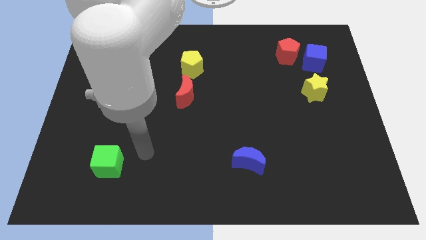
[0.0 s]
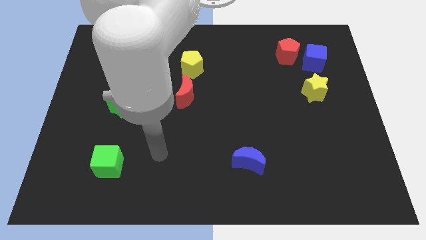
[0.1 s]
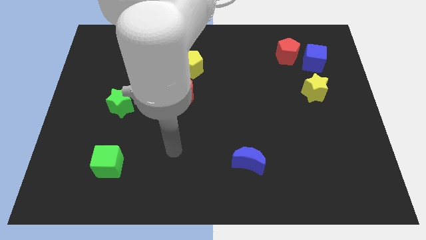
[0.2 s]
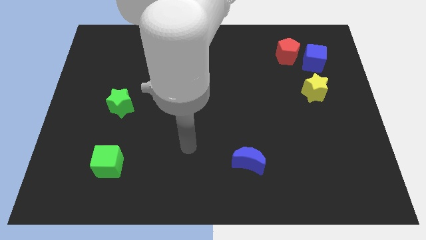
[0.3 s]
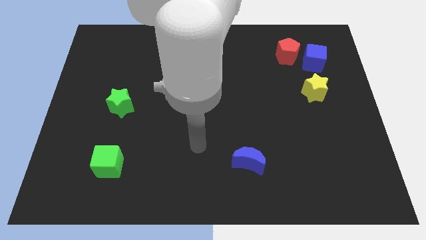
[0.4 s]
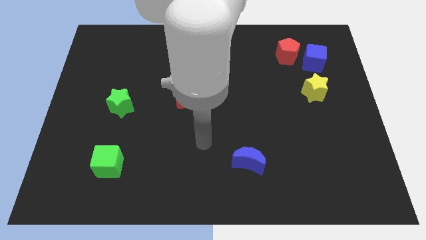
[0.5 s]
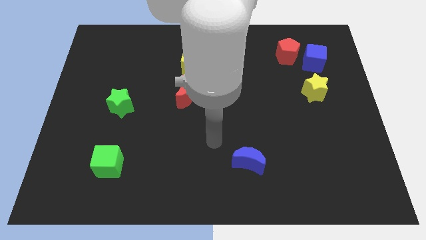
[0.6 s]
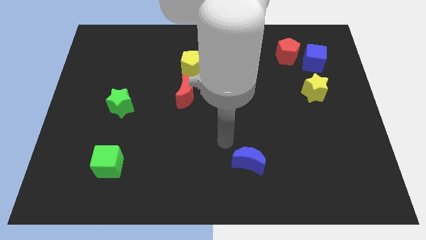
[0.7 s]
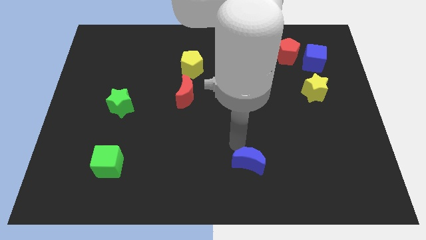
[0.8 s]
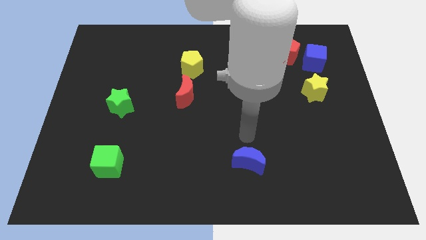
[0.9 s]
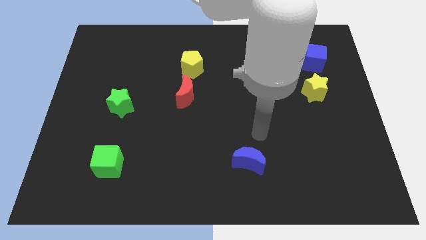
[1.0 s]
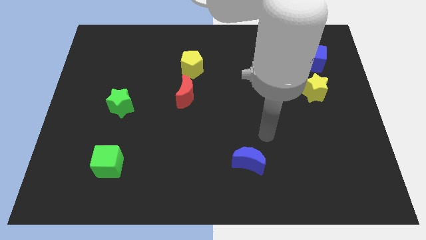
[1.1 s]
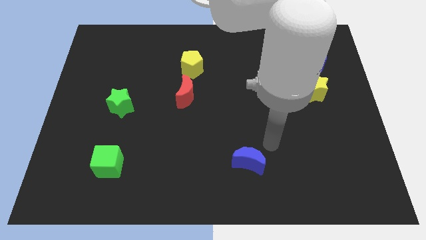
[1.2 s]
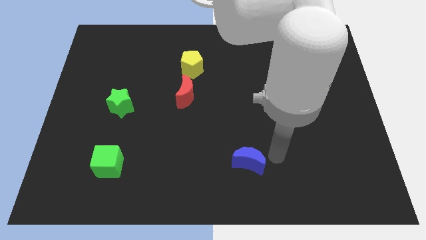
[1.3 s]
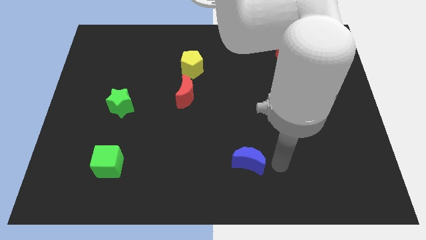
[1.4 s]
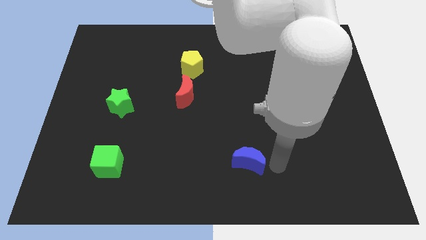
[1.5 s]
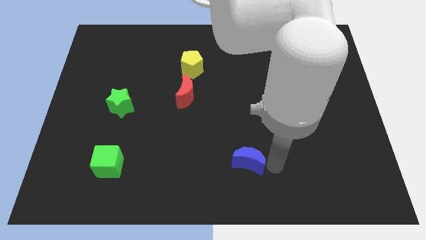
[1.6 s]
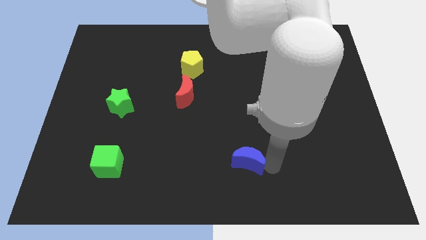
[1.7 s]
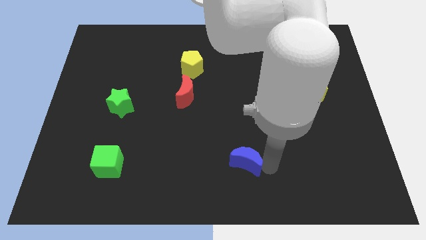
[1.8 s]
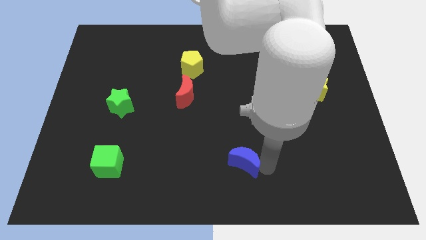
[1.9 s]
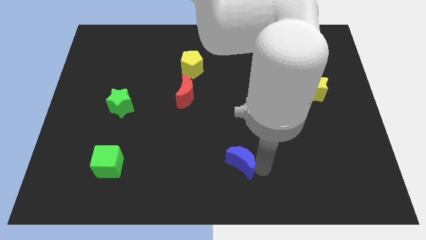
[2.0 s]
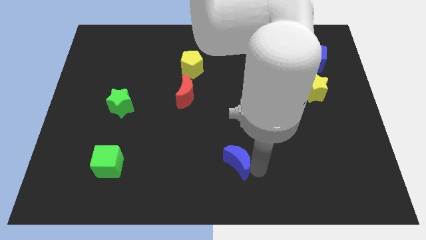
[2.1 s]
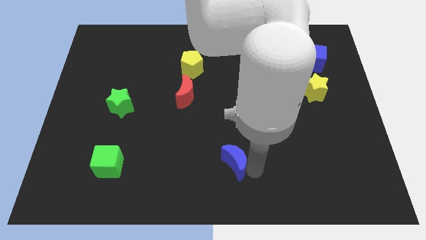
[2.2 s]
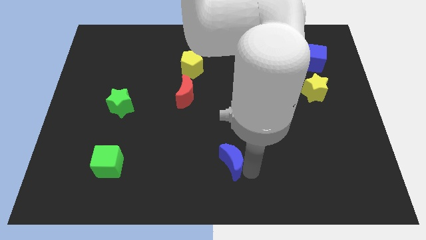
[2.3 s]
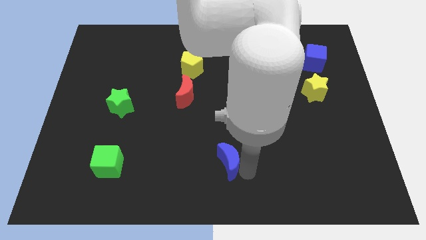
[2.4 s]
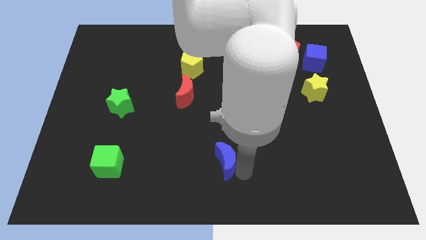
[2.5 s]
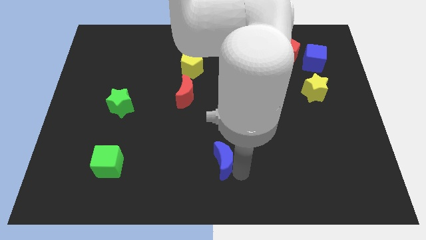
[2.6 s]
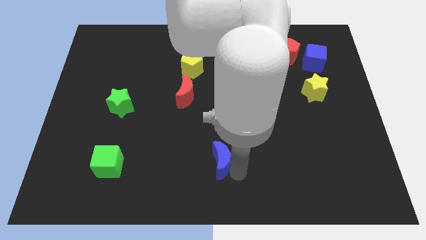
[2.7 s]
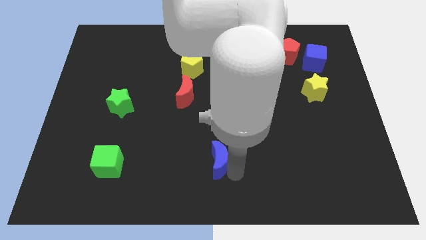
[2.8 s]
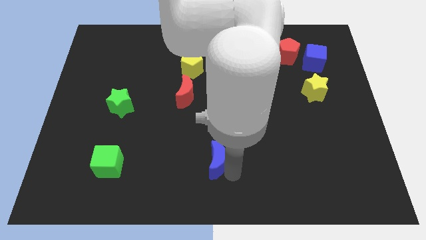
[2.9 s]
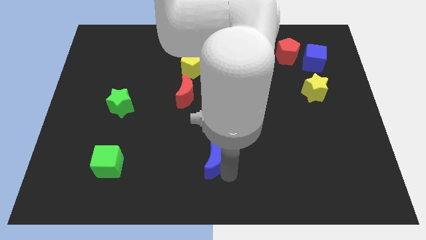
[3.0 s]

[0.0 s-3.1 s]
move the blue moon to the left a bit

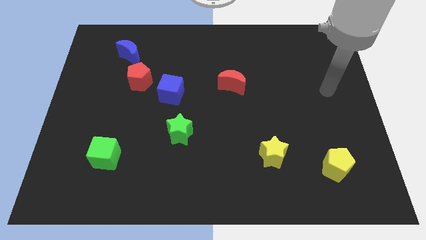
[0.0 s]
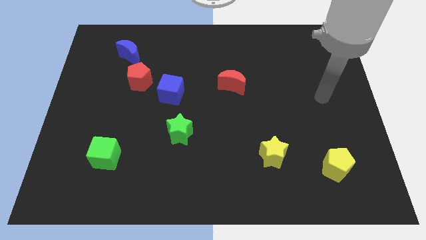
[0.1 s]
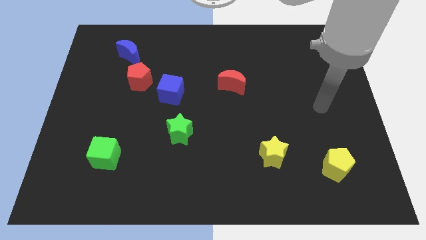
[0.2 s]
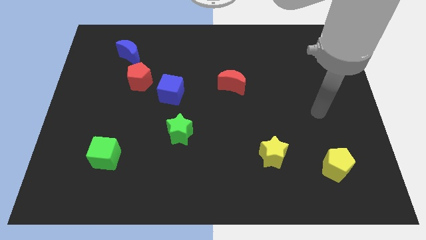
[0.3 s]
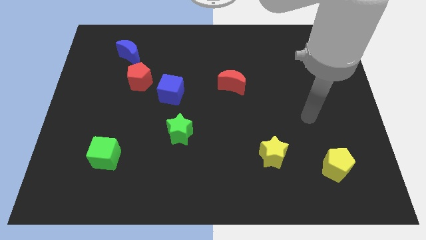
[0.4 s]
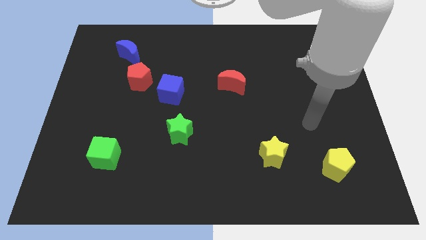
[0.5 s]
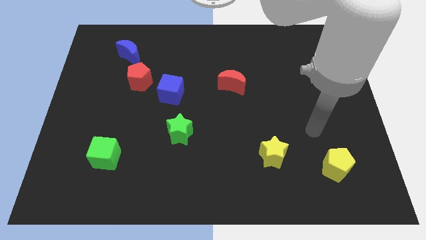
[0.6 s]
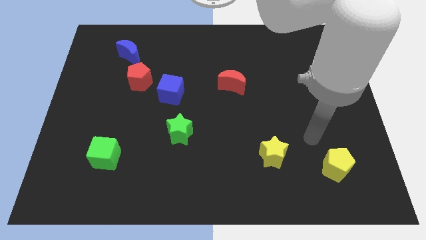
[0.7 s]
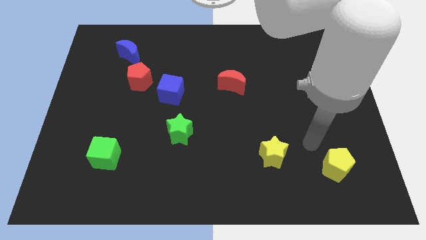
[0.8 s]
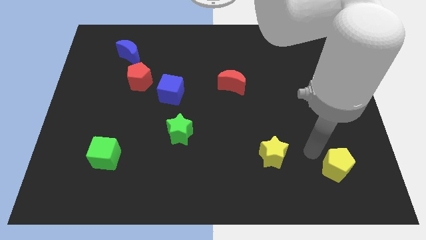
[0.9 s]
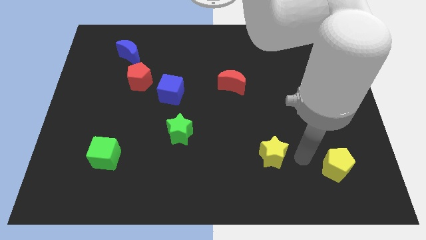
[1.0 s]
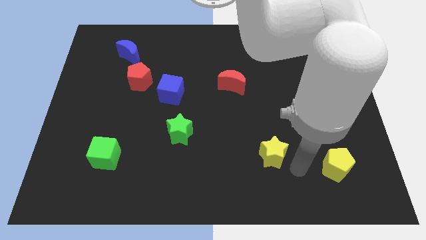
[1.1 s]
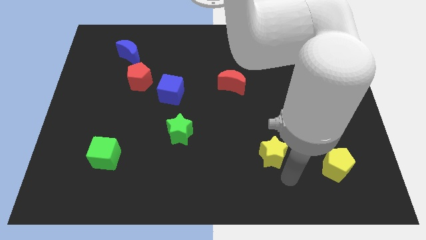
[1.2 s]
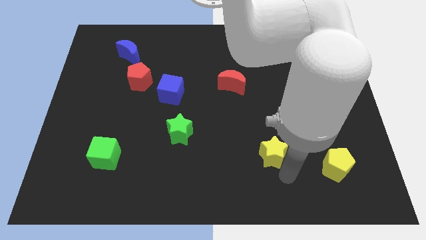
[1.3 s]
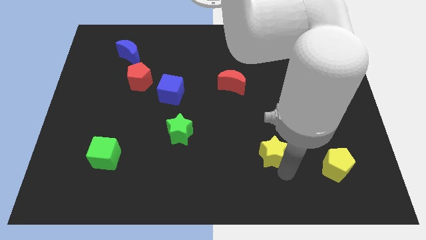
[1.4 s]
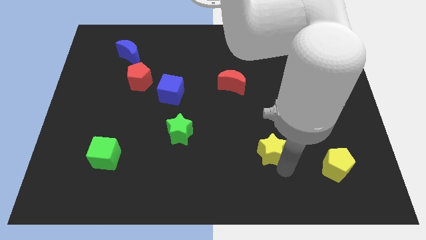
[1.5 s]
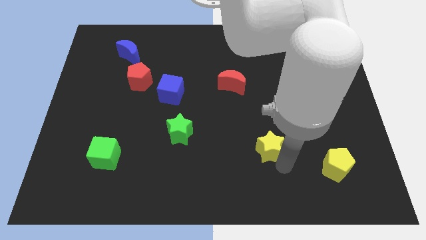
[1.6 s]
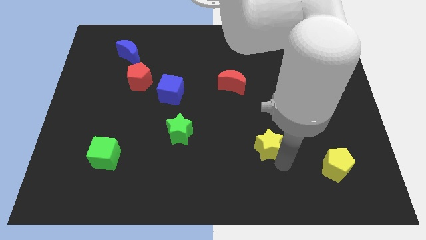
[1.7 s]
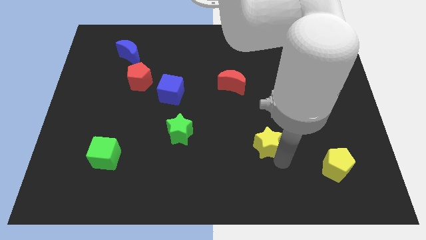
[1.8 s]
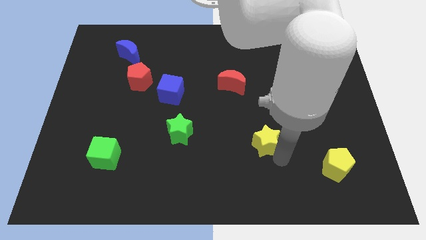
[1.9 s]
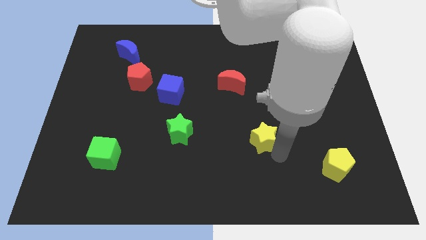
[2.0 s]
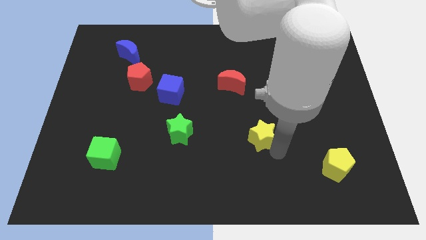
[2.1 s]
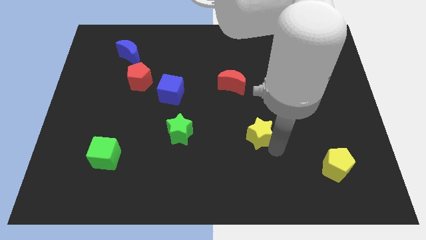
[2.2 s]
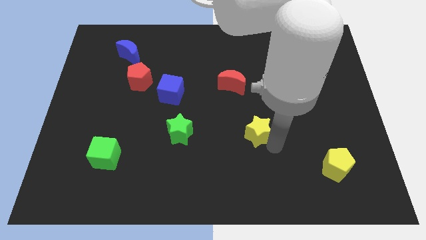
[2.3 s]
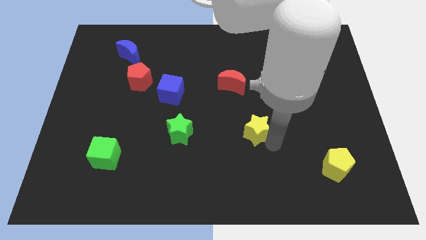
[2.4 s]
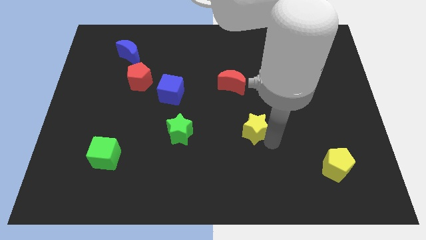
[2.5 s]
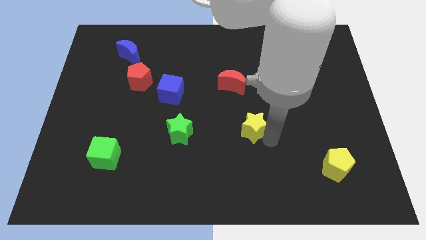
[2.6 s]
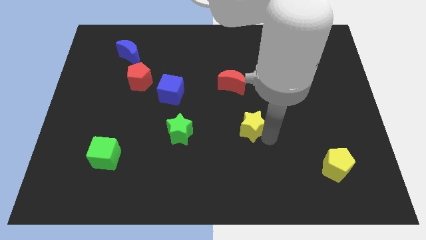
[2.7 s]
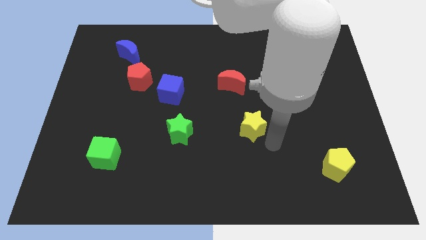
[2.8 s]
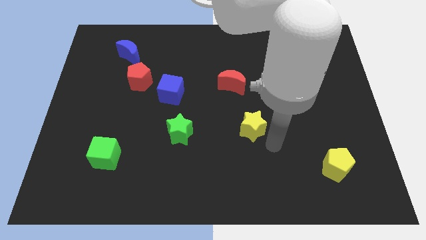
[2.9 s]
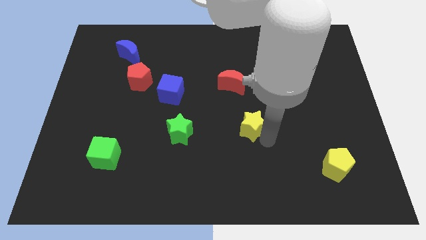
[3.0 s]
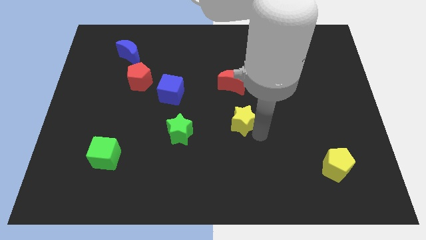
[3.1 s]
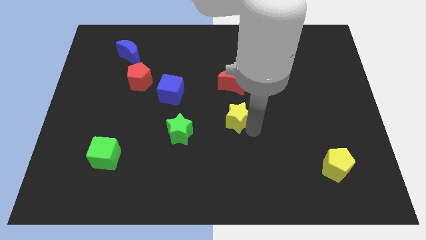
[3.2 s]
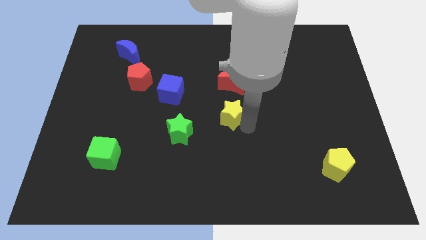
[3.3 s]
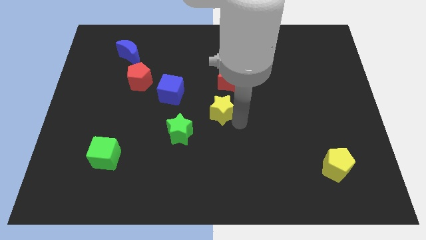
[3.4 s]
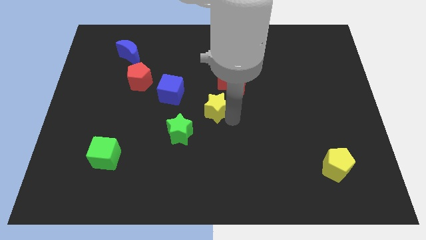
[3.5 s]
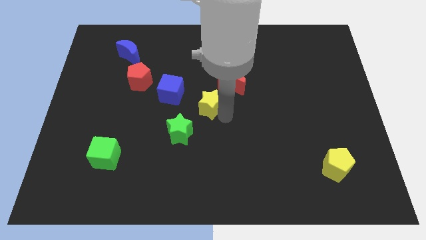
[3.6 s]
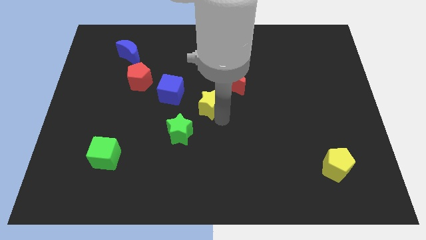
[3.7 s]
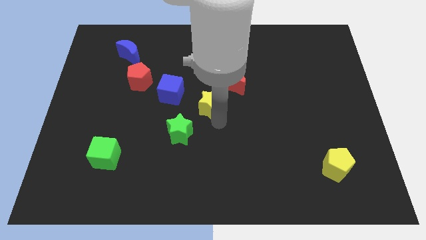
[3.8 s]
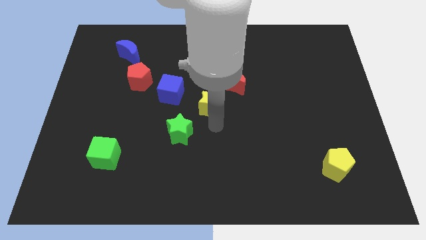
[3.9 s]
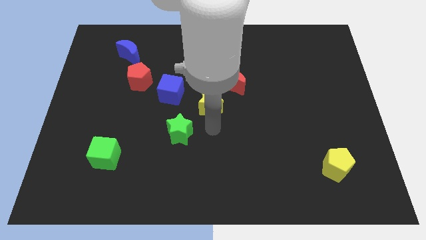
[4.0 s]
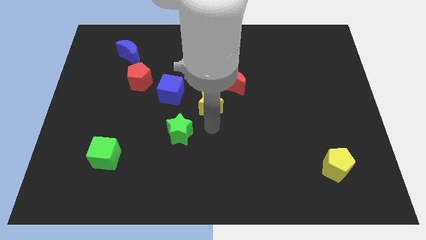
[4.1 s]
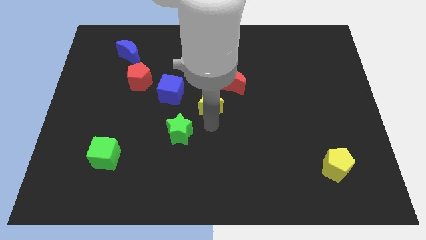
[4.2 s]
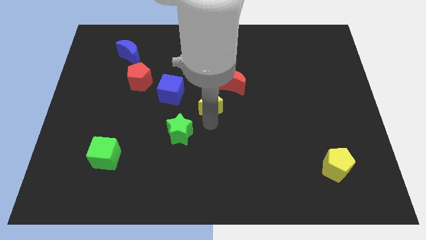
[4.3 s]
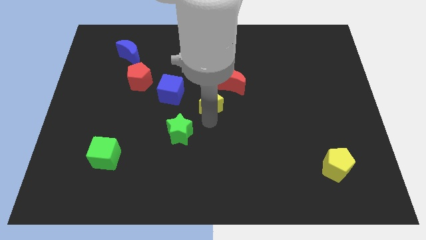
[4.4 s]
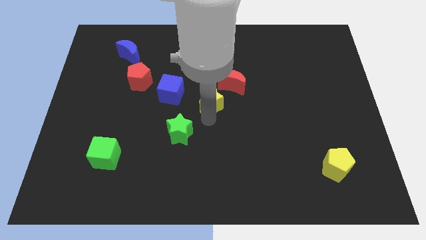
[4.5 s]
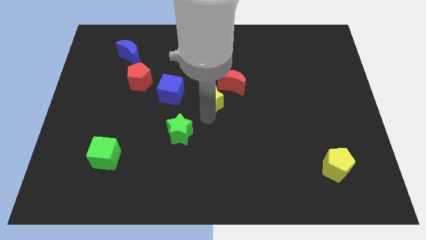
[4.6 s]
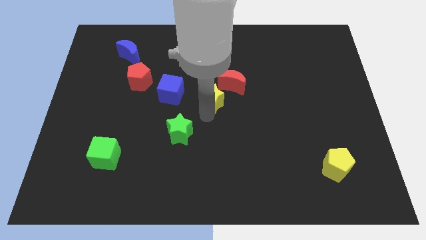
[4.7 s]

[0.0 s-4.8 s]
push the yellow star diagonally up and left

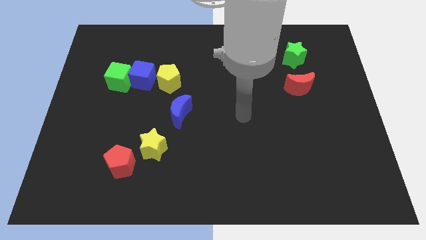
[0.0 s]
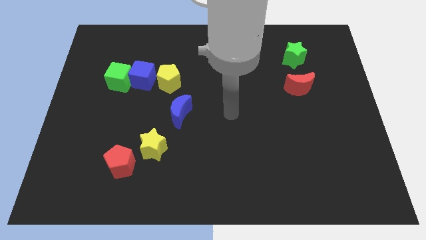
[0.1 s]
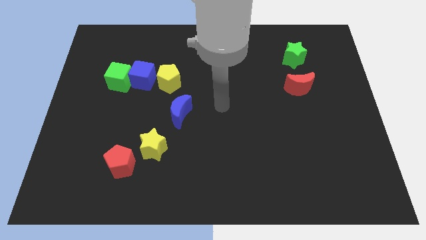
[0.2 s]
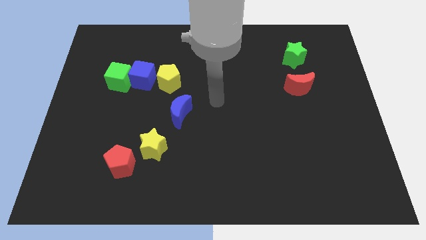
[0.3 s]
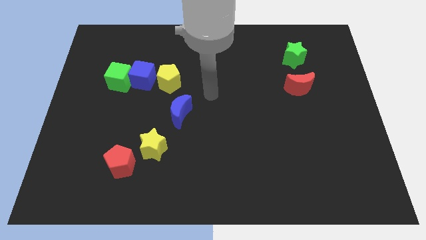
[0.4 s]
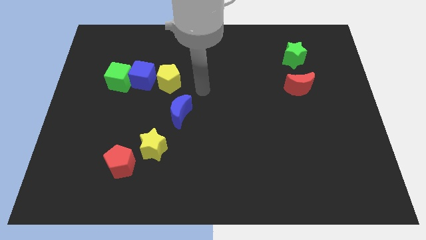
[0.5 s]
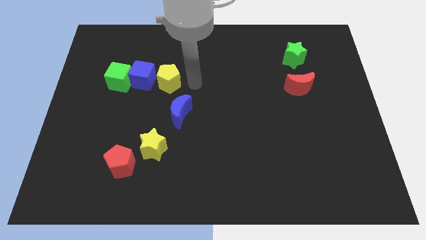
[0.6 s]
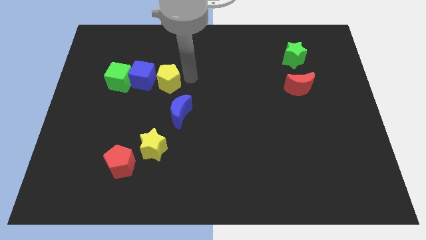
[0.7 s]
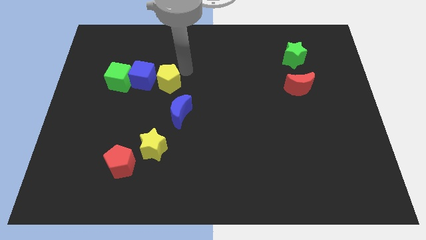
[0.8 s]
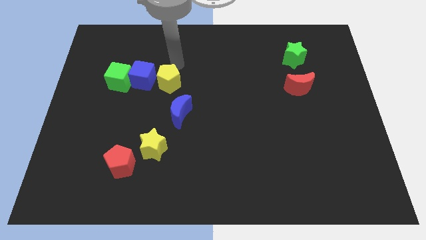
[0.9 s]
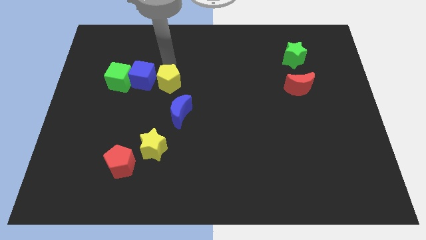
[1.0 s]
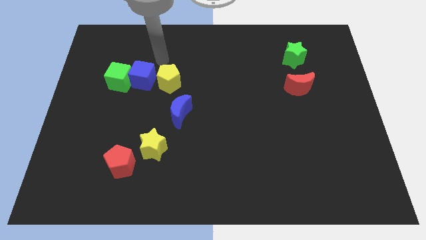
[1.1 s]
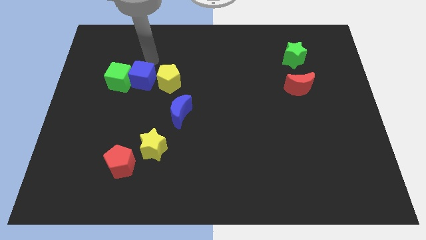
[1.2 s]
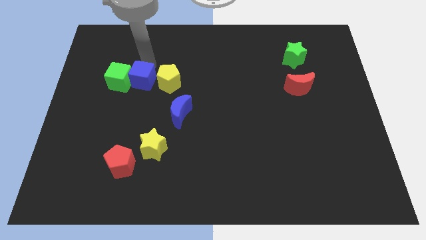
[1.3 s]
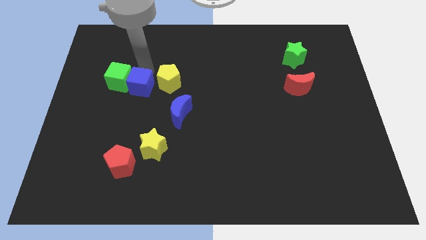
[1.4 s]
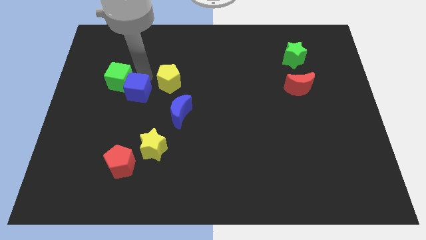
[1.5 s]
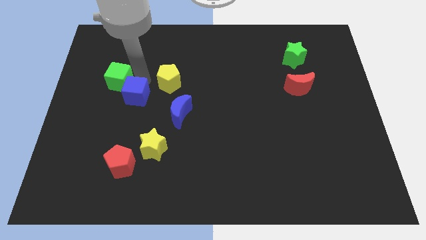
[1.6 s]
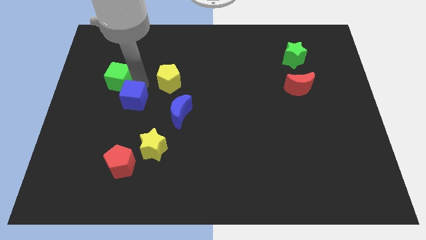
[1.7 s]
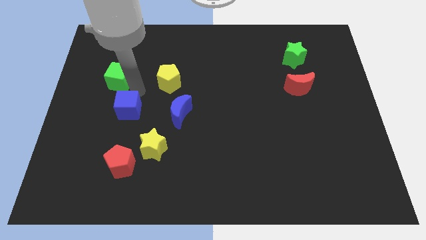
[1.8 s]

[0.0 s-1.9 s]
slide the blue cube down a little bit
